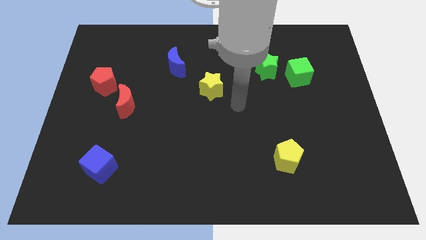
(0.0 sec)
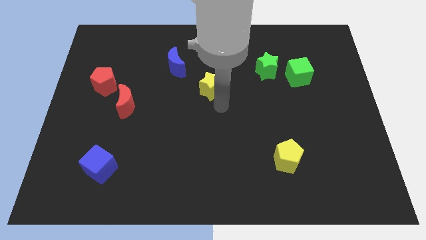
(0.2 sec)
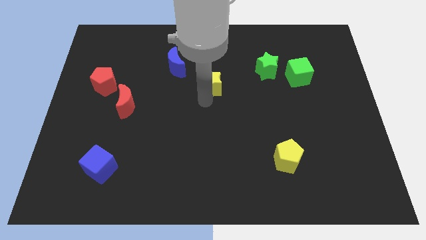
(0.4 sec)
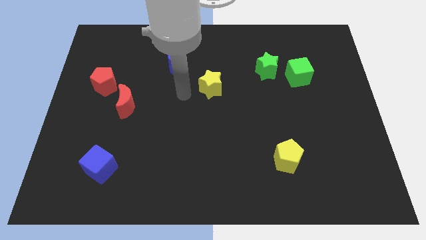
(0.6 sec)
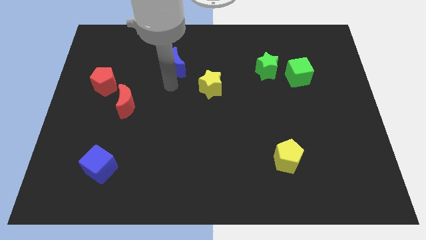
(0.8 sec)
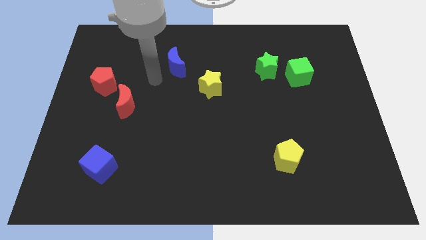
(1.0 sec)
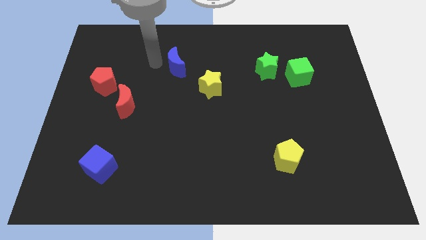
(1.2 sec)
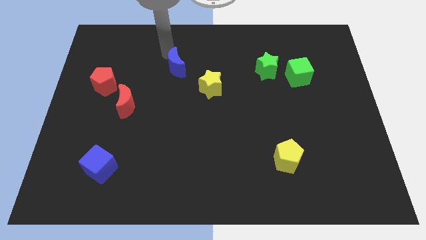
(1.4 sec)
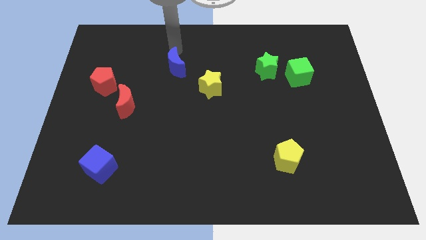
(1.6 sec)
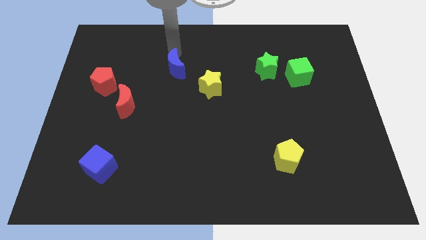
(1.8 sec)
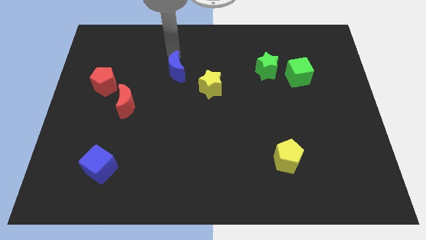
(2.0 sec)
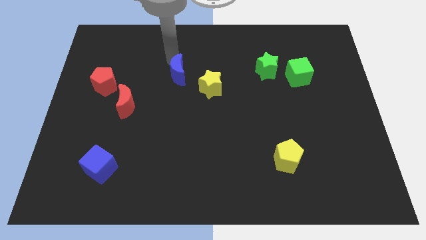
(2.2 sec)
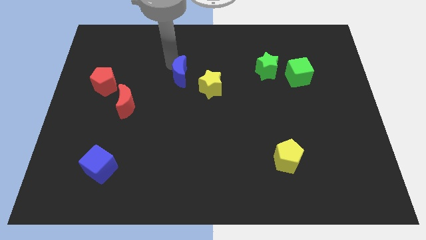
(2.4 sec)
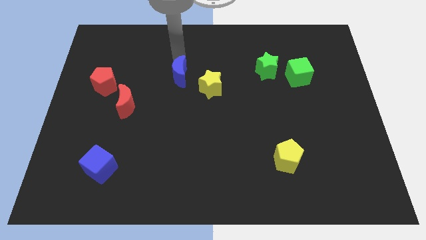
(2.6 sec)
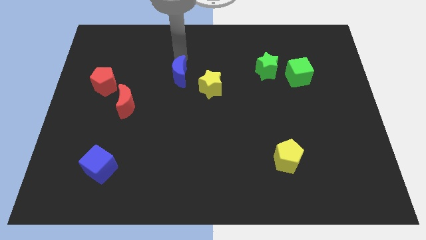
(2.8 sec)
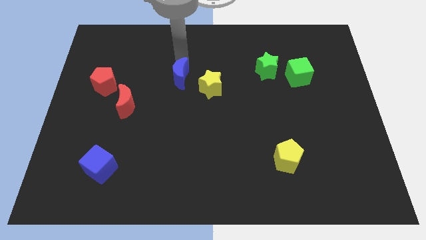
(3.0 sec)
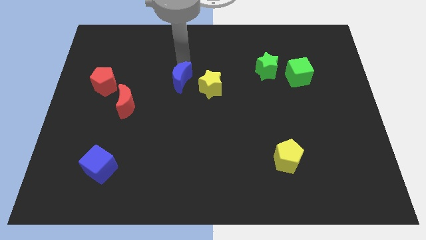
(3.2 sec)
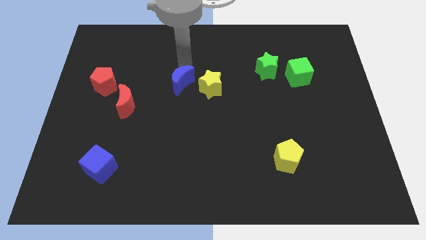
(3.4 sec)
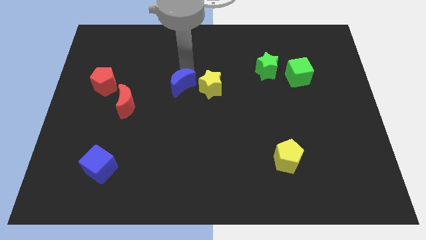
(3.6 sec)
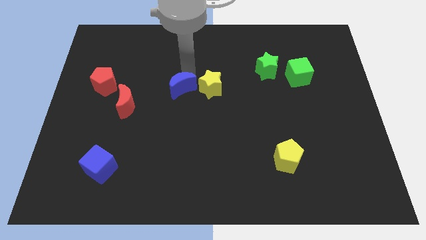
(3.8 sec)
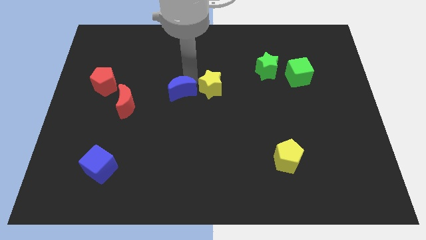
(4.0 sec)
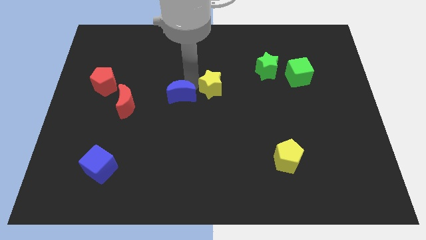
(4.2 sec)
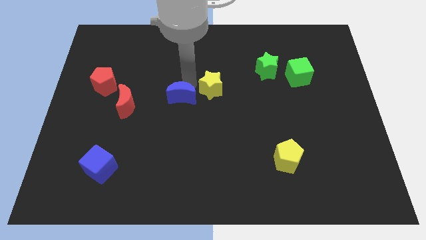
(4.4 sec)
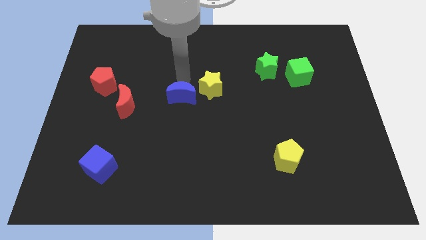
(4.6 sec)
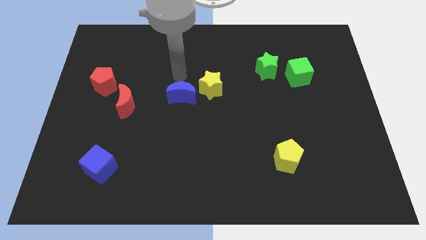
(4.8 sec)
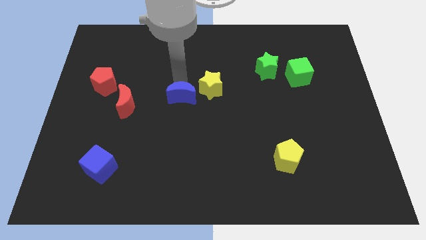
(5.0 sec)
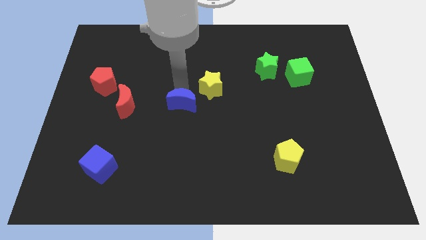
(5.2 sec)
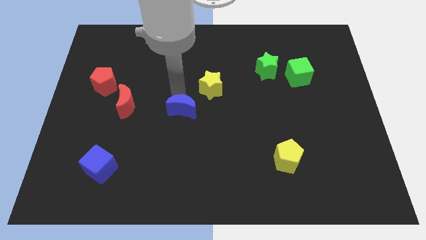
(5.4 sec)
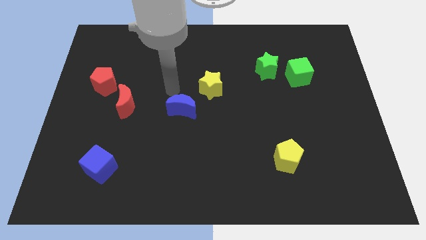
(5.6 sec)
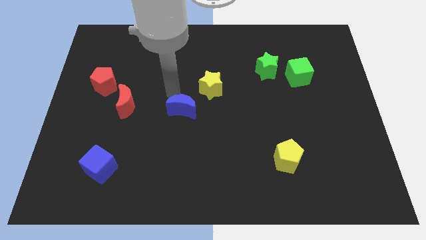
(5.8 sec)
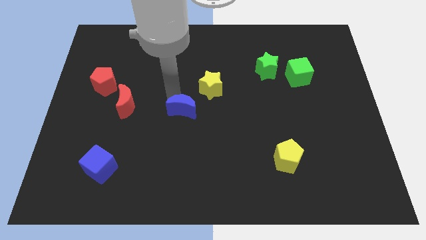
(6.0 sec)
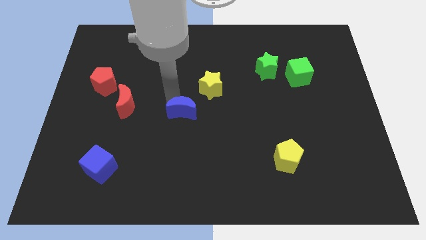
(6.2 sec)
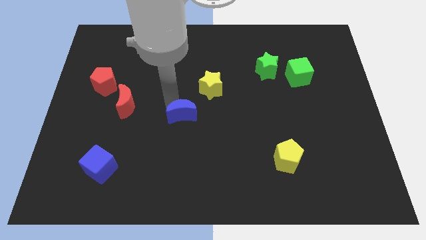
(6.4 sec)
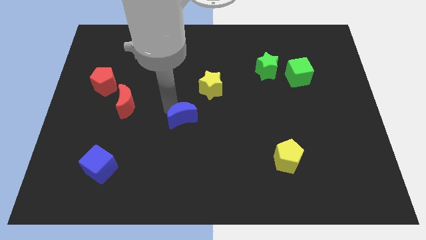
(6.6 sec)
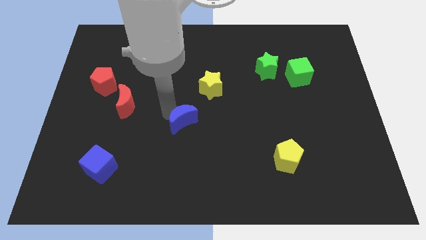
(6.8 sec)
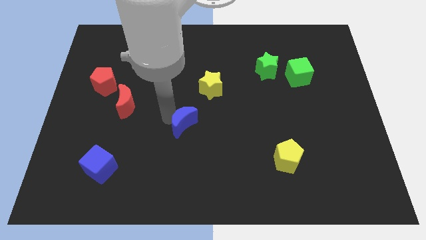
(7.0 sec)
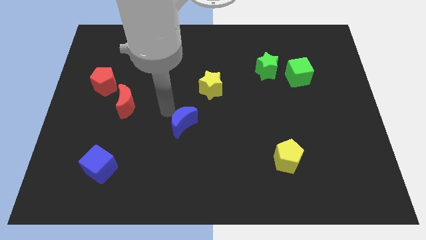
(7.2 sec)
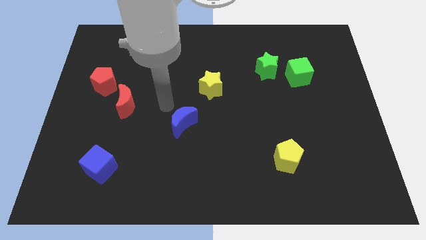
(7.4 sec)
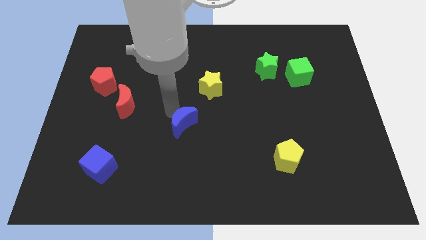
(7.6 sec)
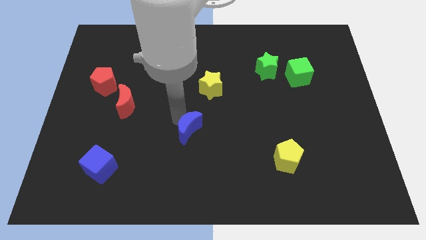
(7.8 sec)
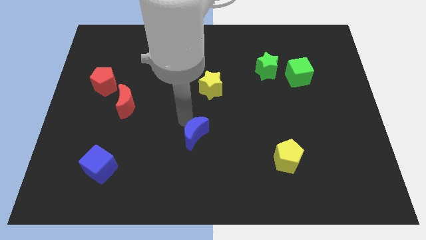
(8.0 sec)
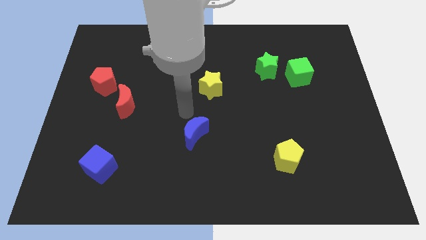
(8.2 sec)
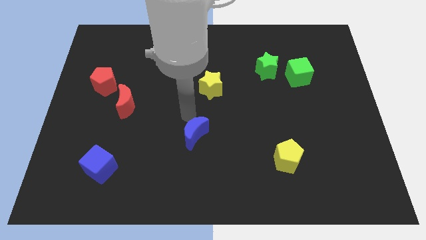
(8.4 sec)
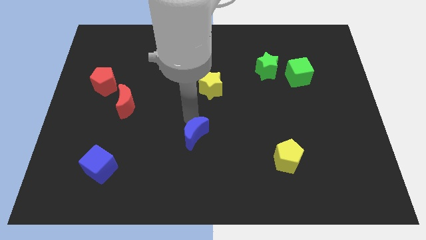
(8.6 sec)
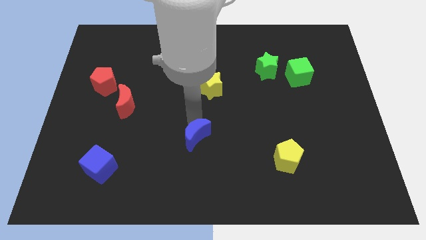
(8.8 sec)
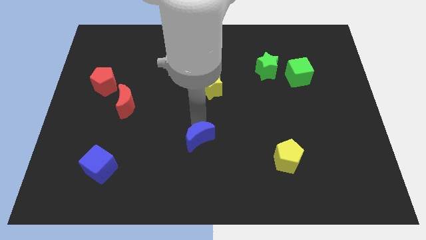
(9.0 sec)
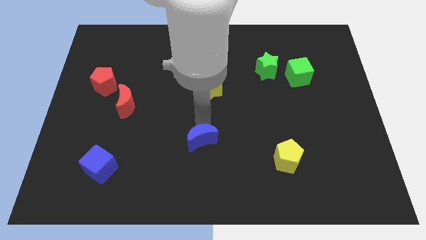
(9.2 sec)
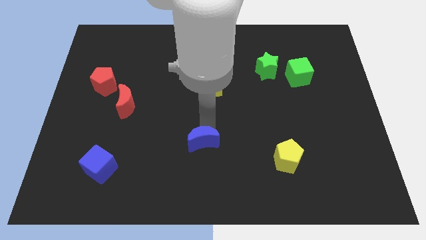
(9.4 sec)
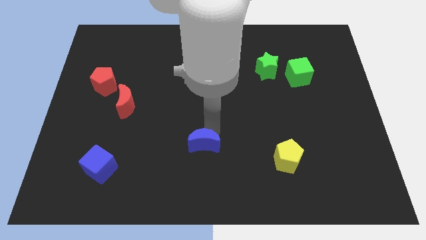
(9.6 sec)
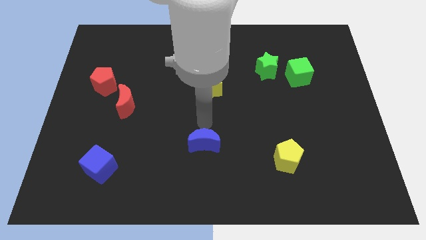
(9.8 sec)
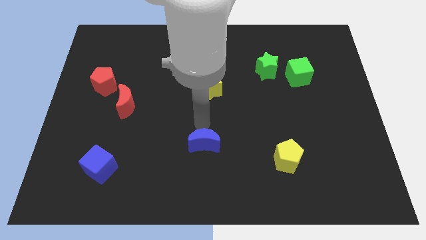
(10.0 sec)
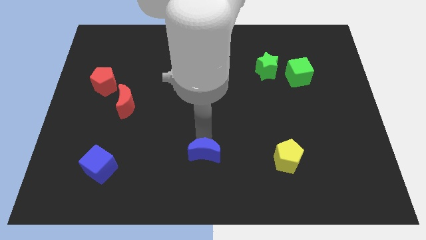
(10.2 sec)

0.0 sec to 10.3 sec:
put the blue moon to the bottom side

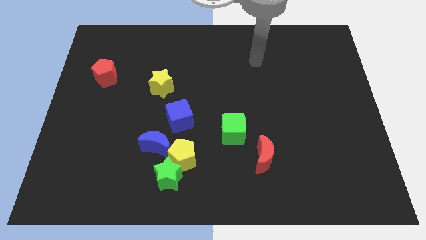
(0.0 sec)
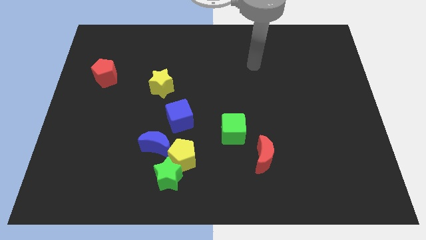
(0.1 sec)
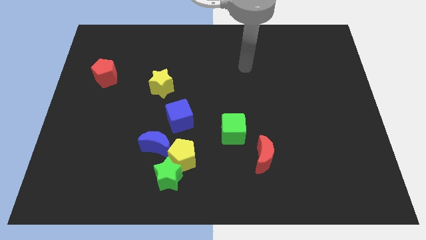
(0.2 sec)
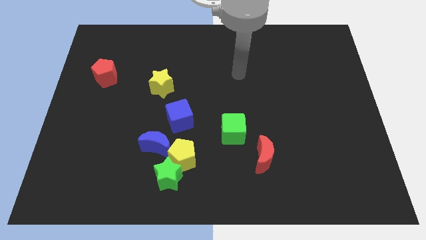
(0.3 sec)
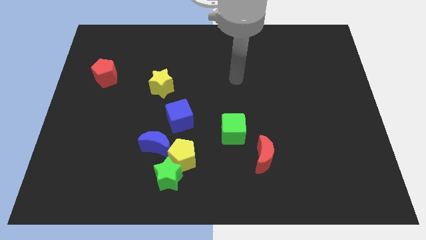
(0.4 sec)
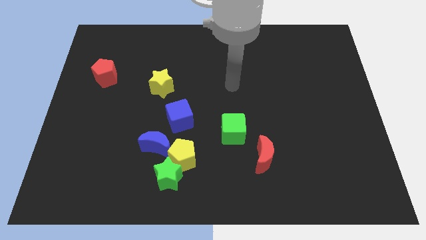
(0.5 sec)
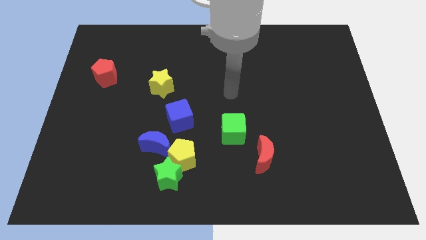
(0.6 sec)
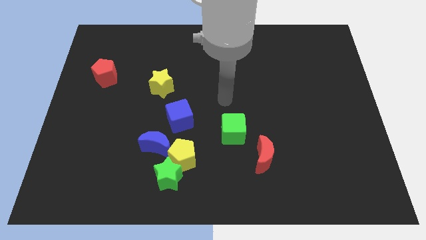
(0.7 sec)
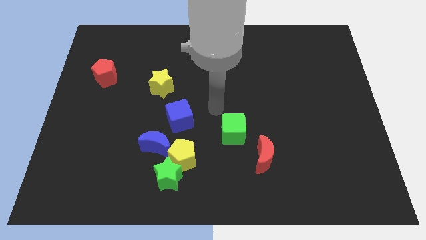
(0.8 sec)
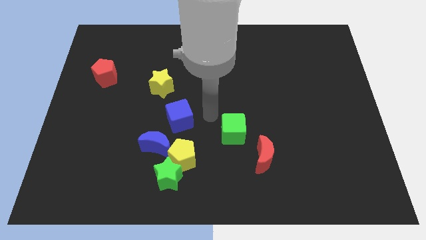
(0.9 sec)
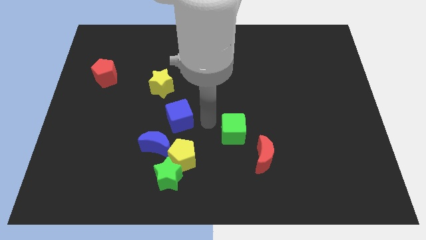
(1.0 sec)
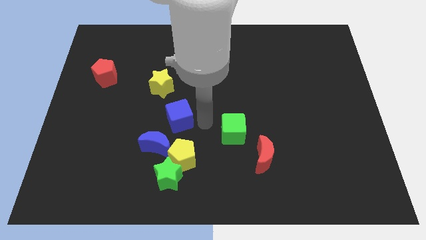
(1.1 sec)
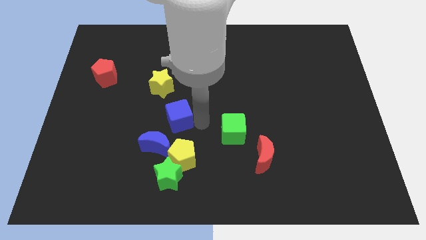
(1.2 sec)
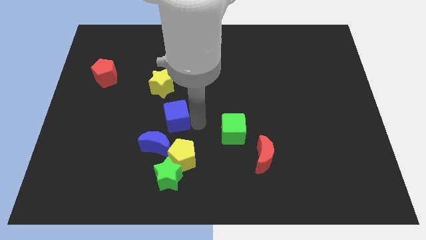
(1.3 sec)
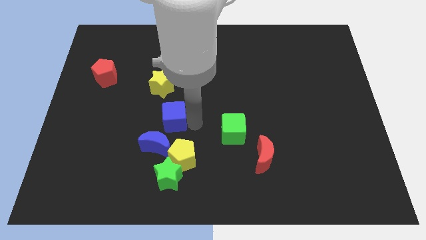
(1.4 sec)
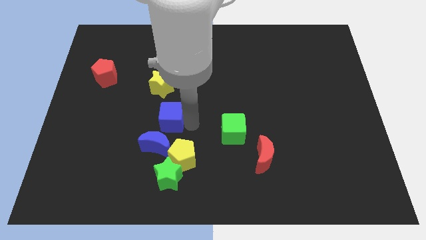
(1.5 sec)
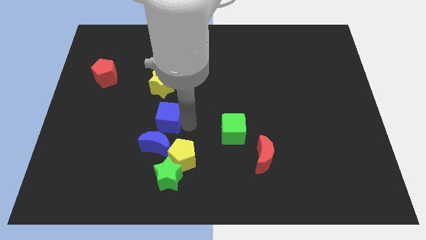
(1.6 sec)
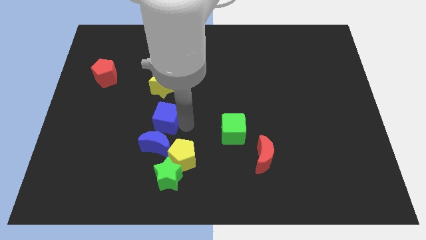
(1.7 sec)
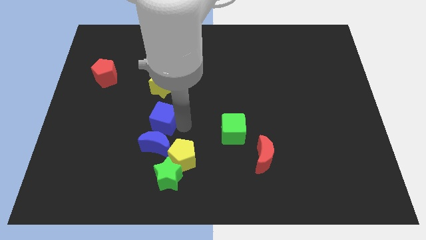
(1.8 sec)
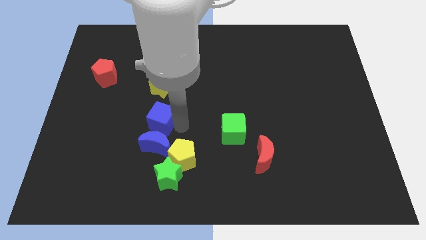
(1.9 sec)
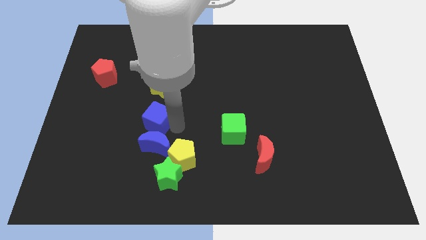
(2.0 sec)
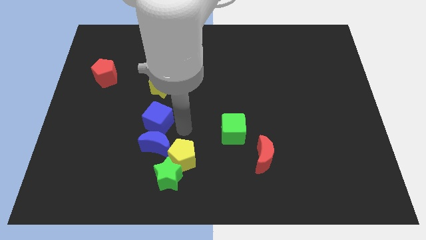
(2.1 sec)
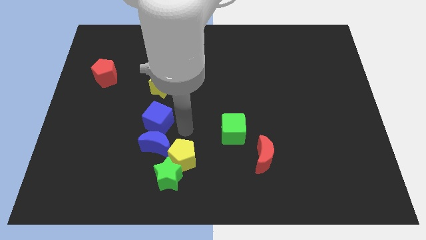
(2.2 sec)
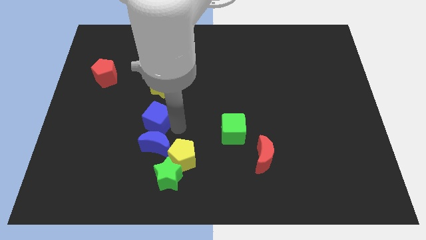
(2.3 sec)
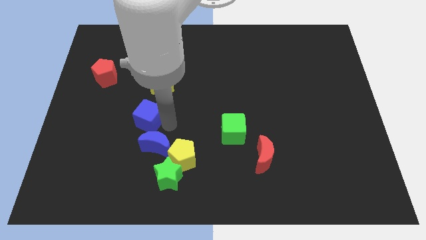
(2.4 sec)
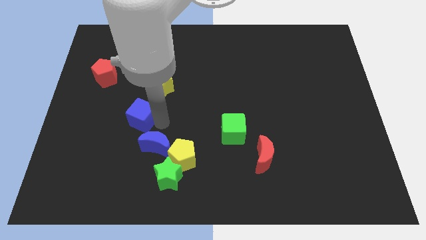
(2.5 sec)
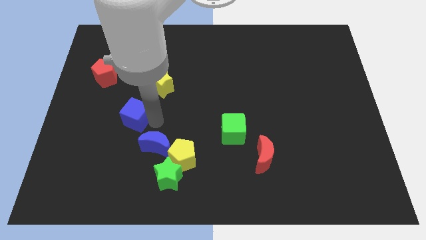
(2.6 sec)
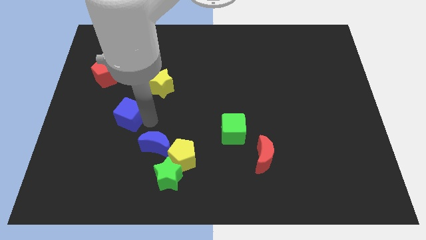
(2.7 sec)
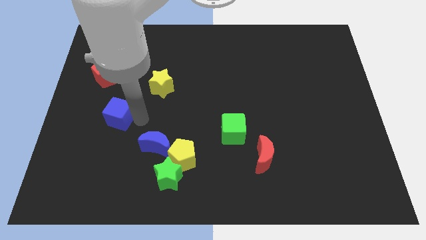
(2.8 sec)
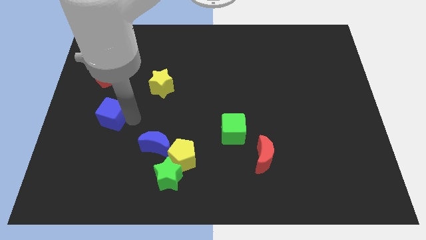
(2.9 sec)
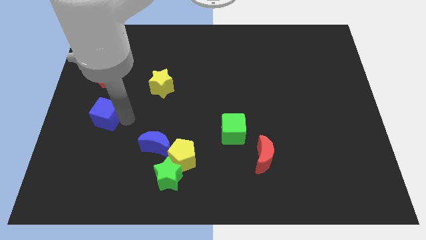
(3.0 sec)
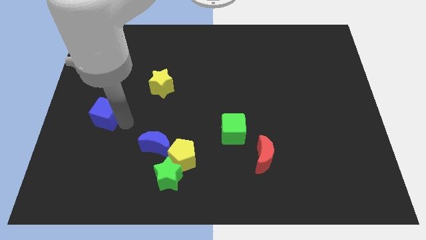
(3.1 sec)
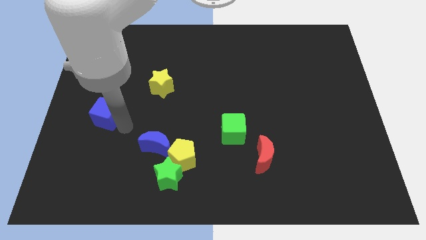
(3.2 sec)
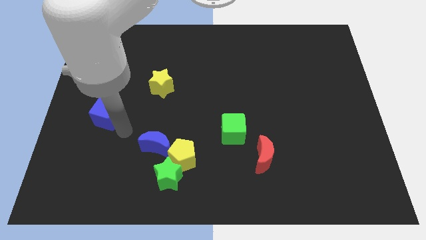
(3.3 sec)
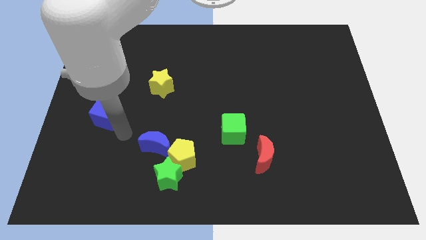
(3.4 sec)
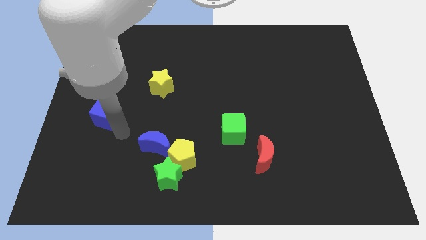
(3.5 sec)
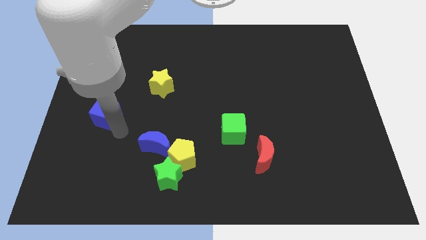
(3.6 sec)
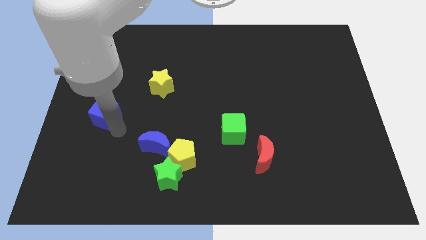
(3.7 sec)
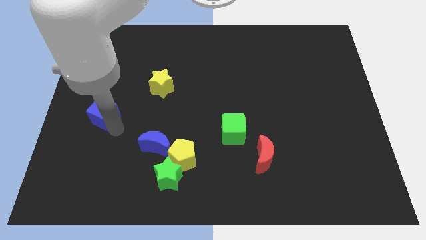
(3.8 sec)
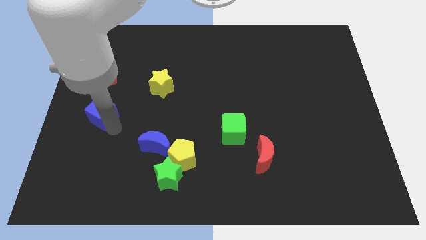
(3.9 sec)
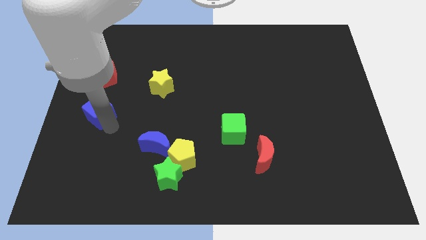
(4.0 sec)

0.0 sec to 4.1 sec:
move the blue cube to the left side of the board
